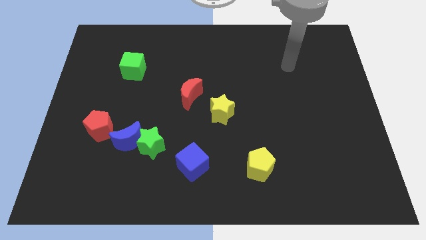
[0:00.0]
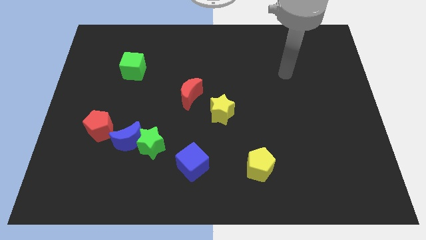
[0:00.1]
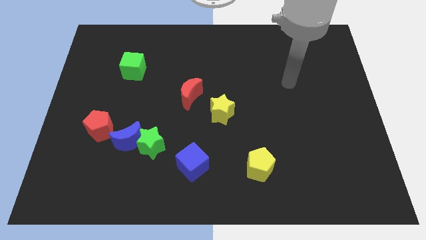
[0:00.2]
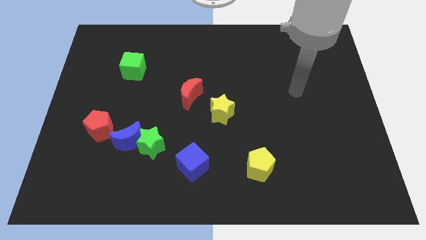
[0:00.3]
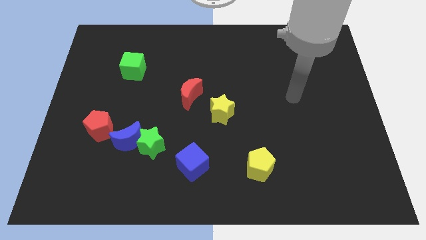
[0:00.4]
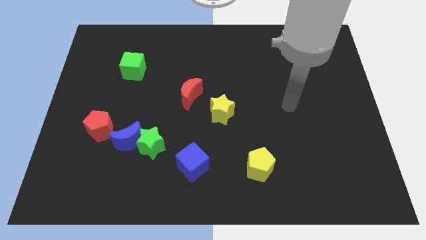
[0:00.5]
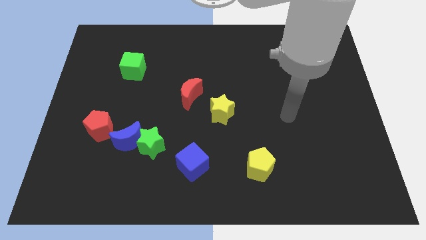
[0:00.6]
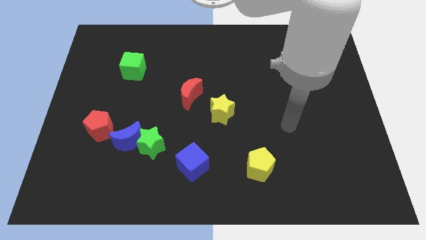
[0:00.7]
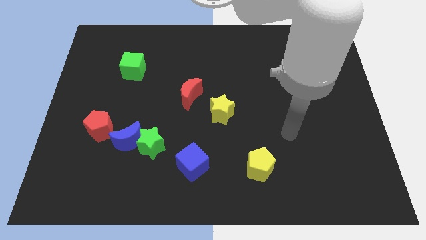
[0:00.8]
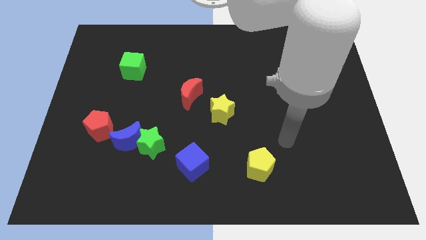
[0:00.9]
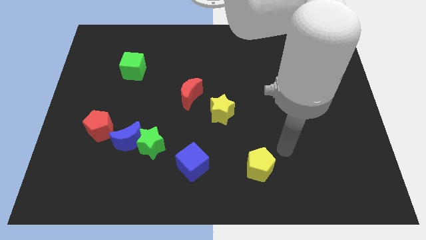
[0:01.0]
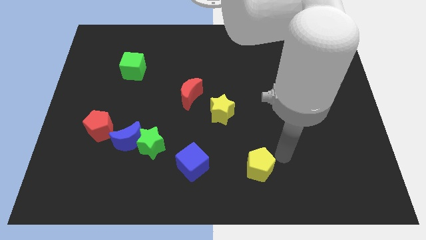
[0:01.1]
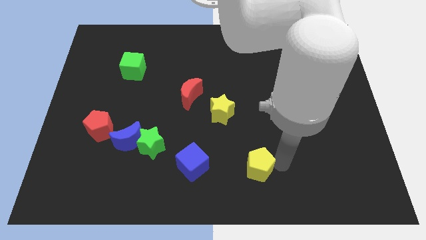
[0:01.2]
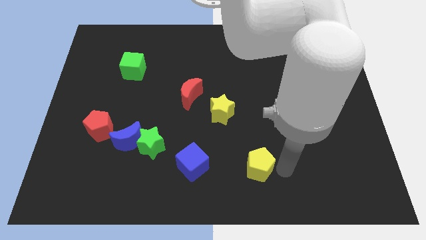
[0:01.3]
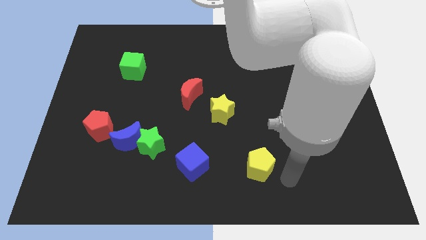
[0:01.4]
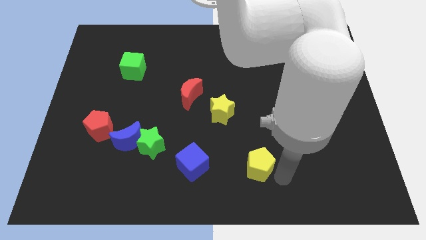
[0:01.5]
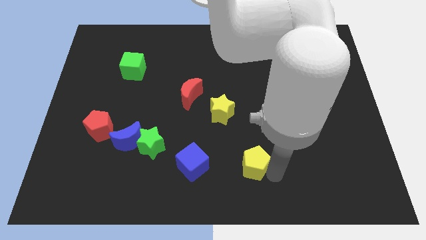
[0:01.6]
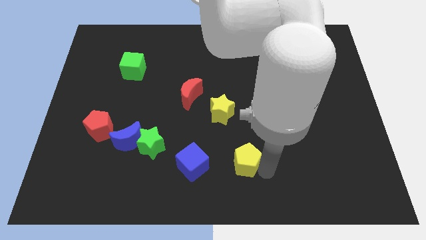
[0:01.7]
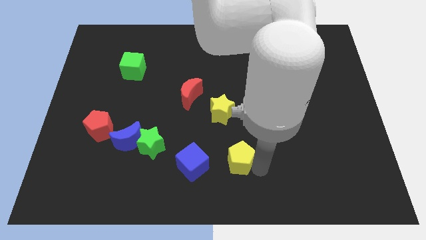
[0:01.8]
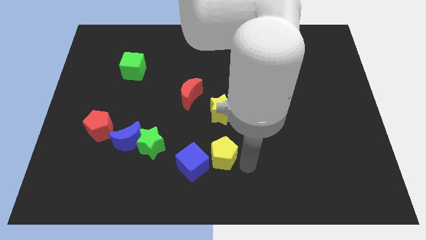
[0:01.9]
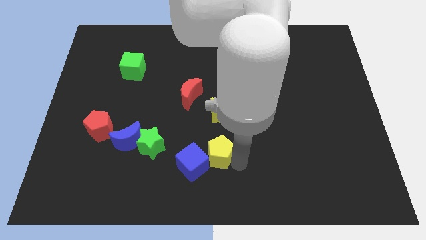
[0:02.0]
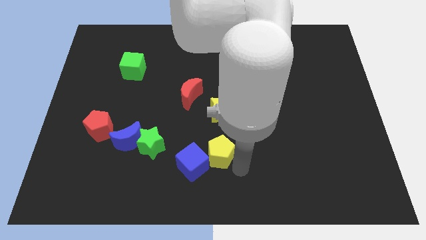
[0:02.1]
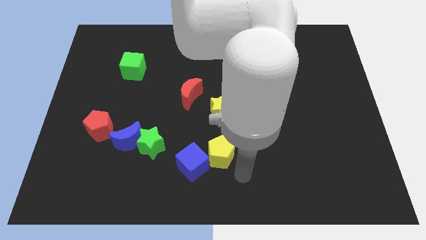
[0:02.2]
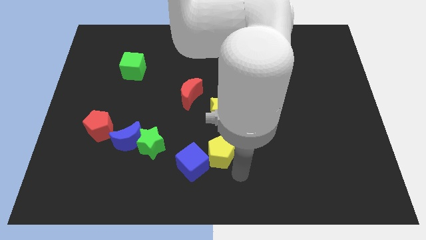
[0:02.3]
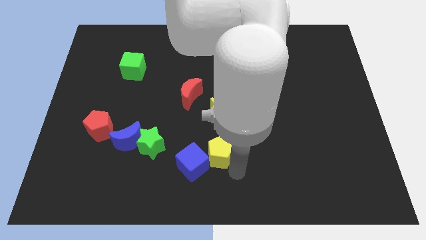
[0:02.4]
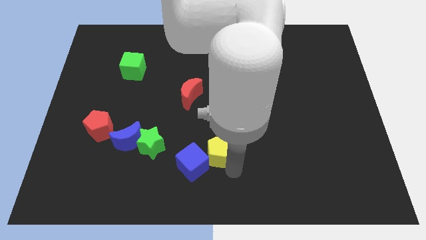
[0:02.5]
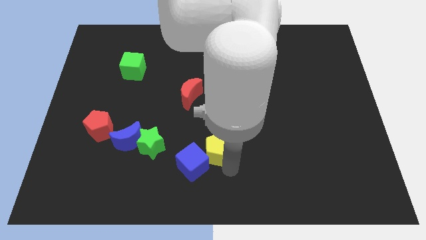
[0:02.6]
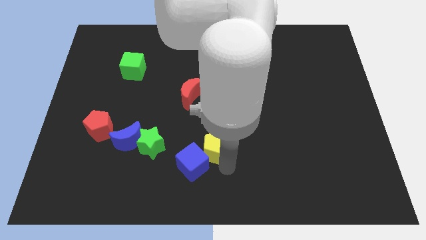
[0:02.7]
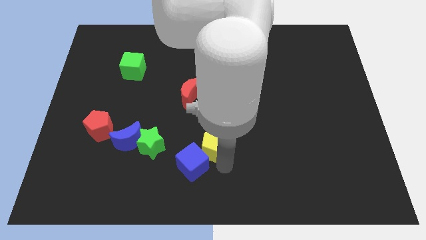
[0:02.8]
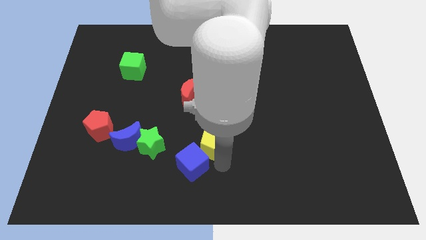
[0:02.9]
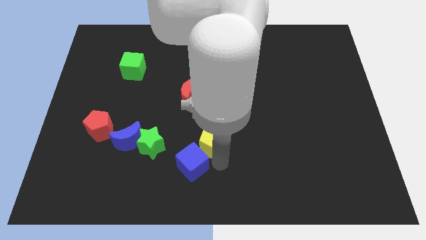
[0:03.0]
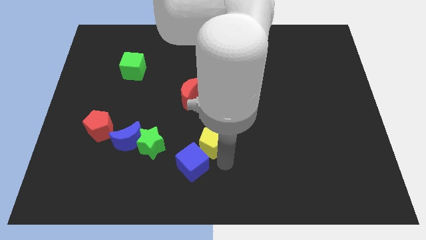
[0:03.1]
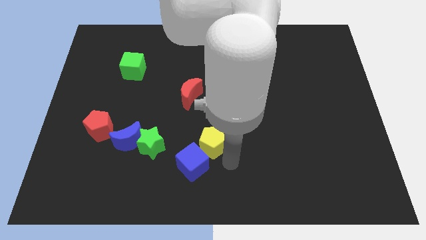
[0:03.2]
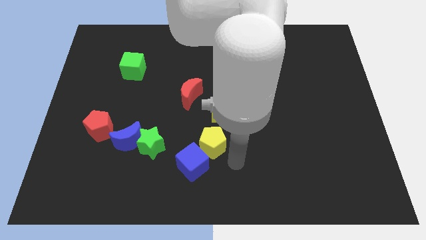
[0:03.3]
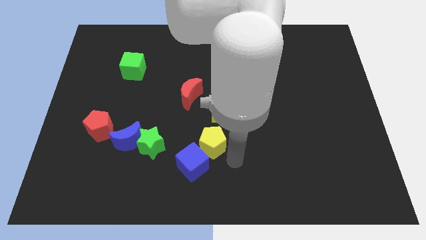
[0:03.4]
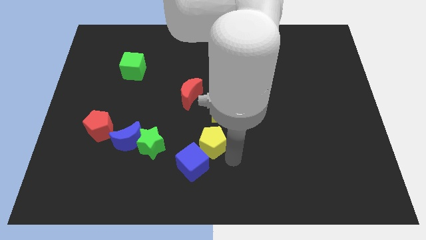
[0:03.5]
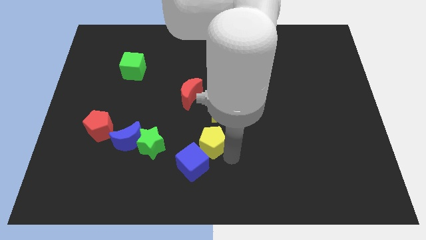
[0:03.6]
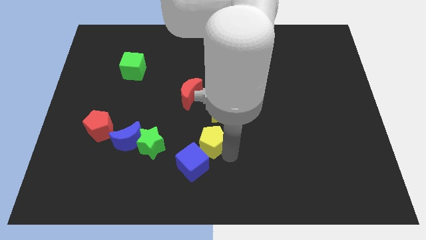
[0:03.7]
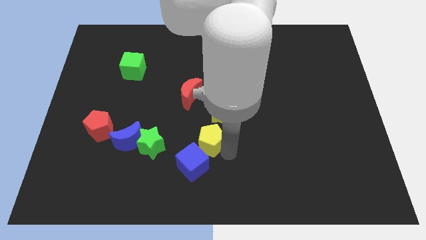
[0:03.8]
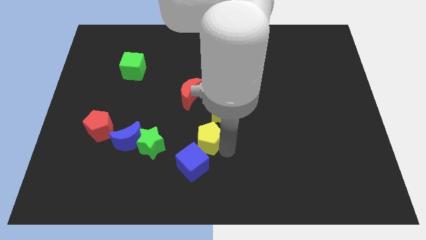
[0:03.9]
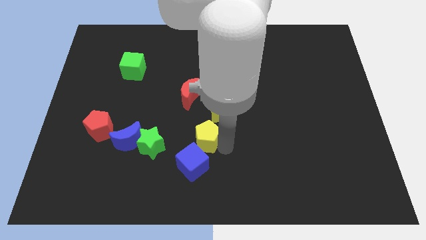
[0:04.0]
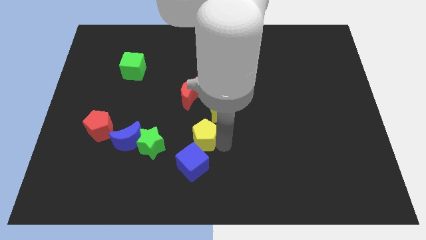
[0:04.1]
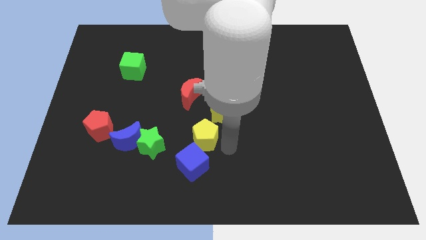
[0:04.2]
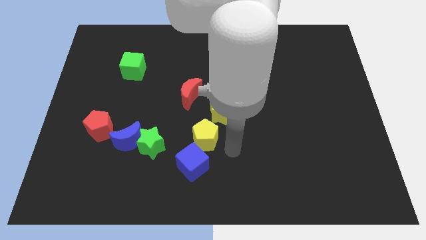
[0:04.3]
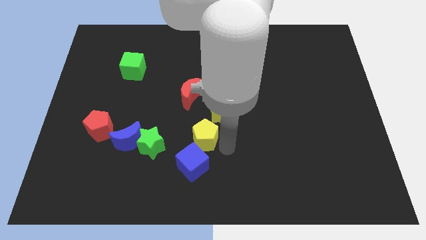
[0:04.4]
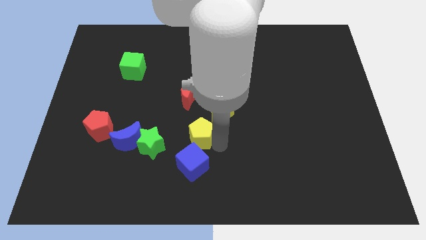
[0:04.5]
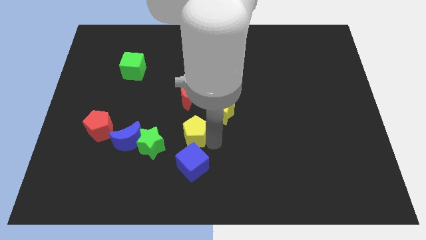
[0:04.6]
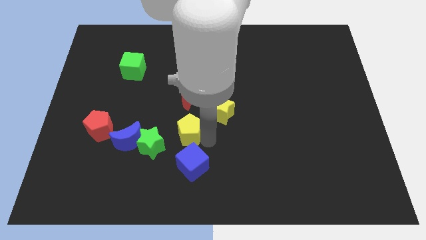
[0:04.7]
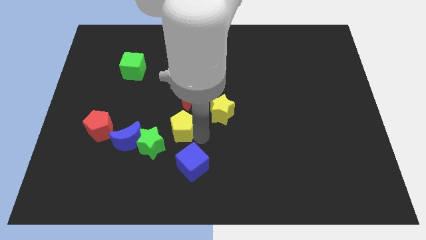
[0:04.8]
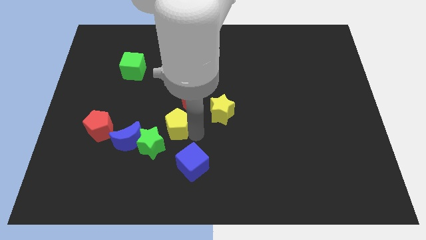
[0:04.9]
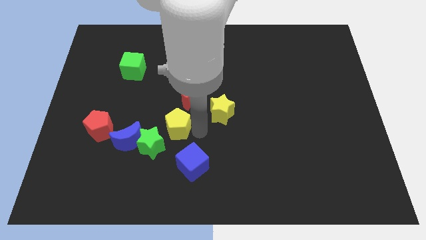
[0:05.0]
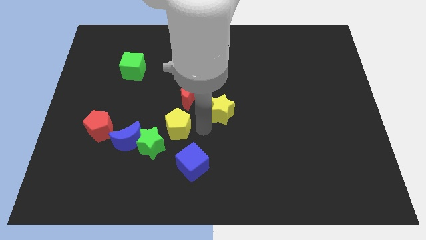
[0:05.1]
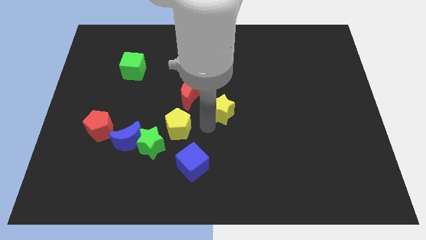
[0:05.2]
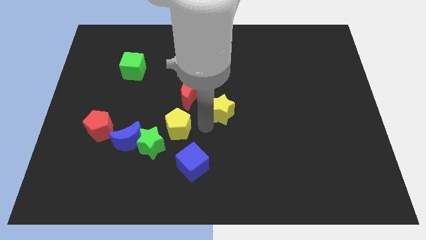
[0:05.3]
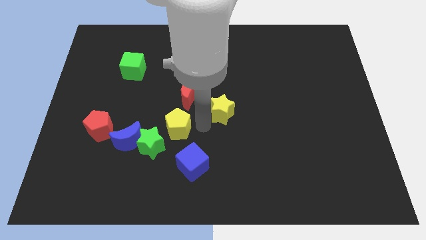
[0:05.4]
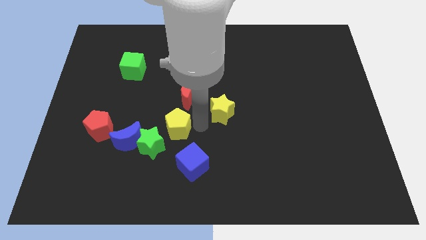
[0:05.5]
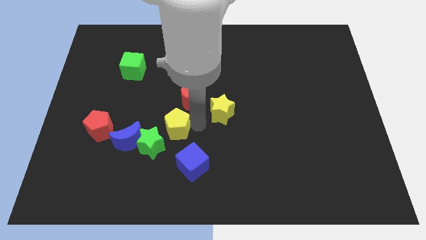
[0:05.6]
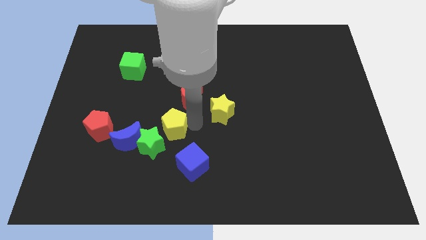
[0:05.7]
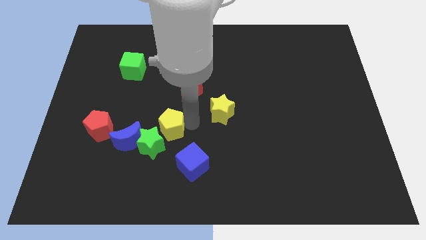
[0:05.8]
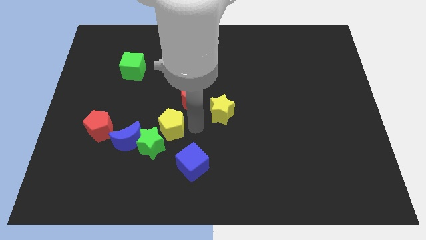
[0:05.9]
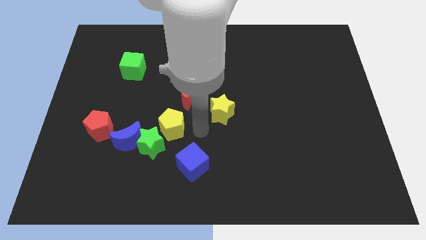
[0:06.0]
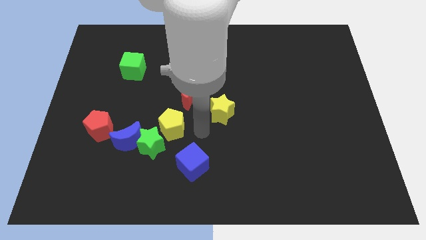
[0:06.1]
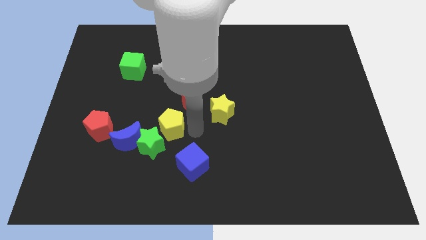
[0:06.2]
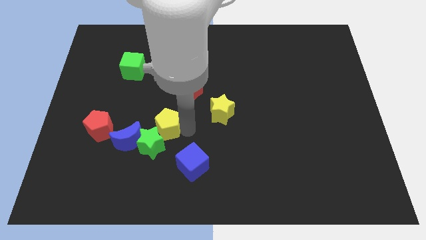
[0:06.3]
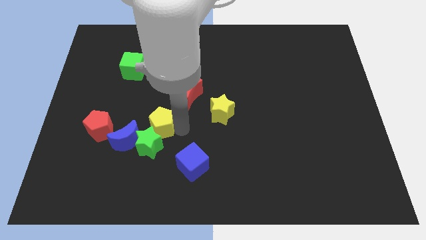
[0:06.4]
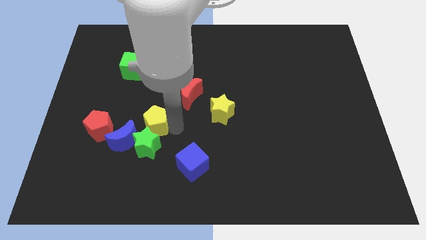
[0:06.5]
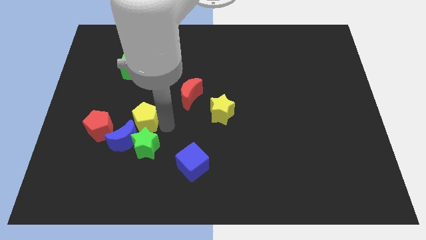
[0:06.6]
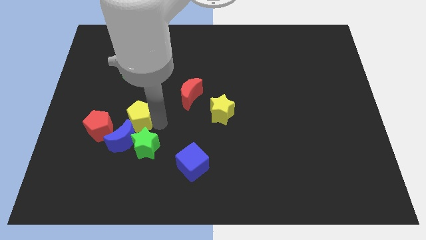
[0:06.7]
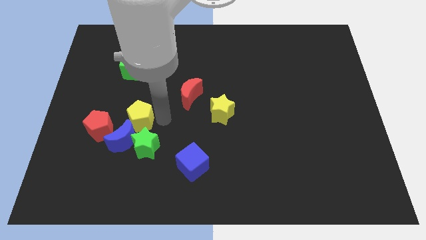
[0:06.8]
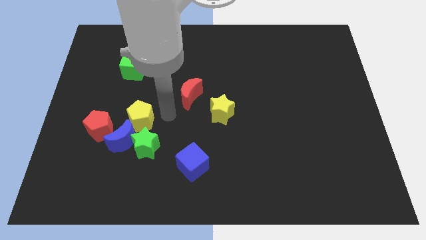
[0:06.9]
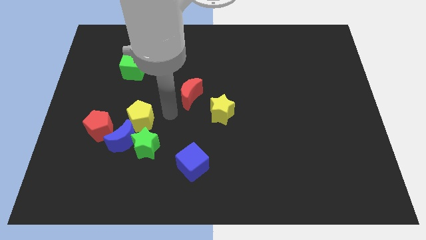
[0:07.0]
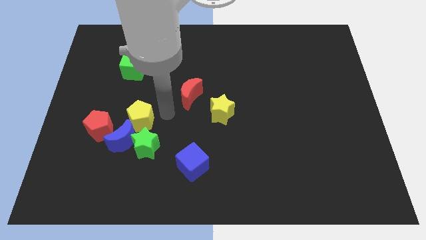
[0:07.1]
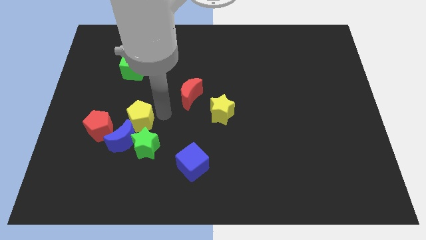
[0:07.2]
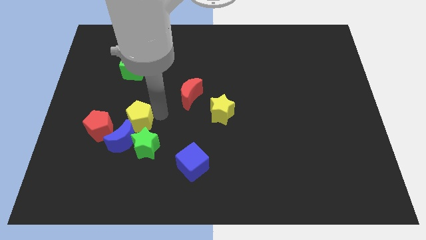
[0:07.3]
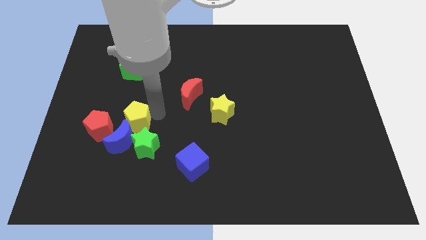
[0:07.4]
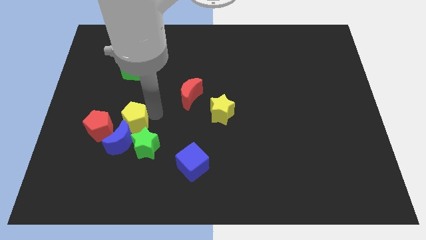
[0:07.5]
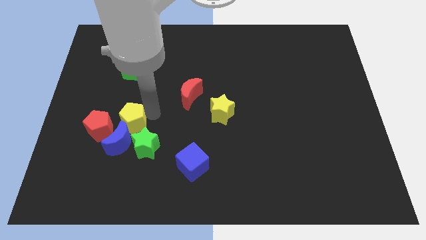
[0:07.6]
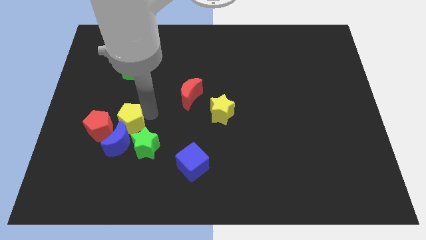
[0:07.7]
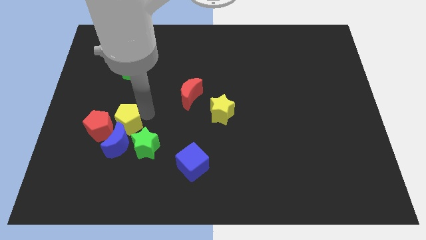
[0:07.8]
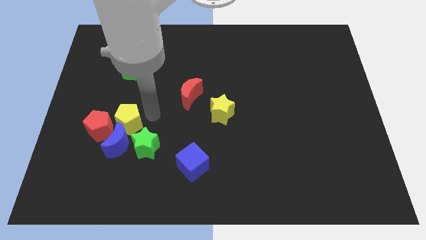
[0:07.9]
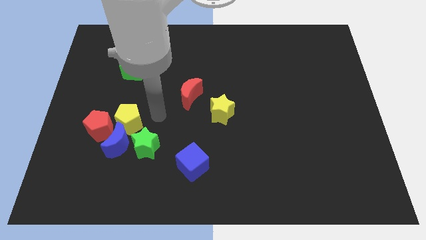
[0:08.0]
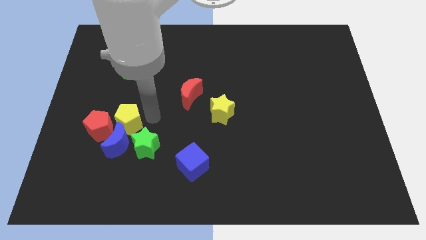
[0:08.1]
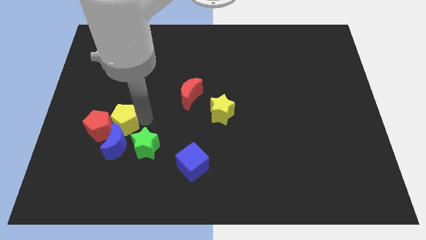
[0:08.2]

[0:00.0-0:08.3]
push the yellow pentagon towards the red pentagon
